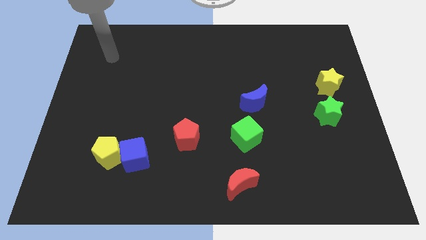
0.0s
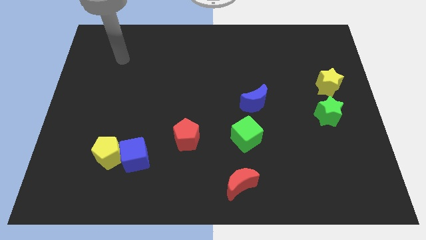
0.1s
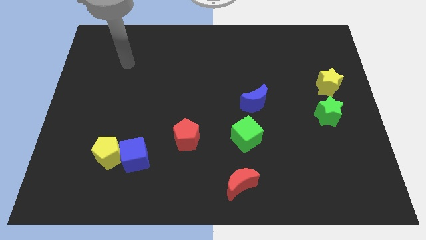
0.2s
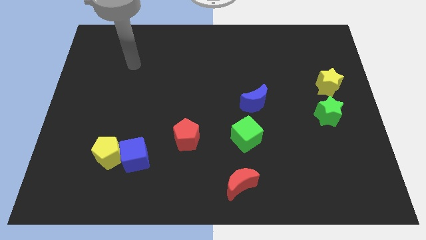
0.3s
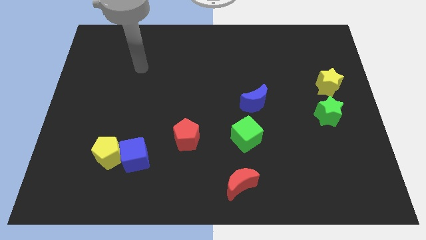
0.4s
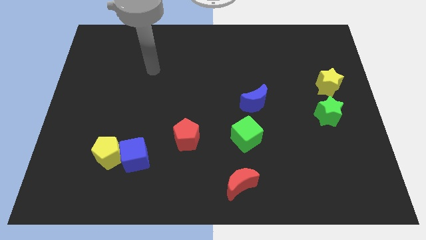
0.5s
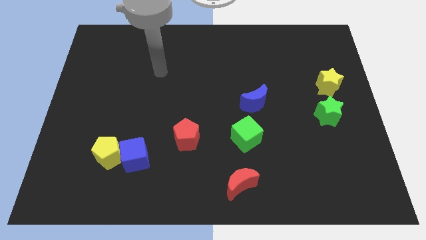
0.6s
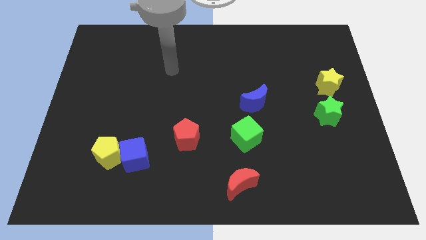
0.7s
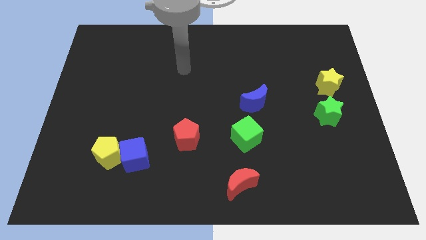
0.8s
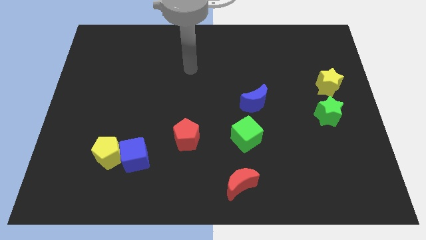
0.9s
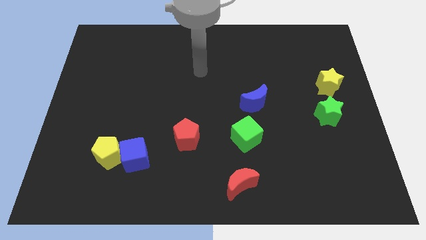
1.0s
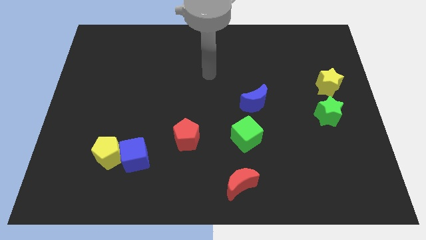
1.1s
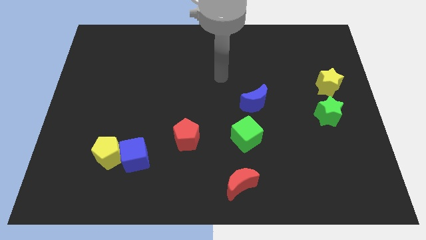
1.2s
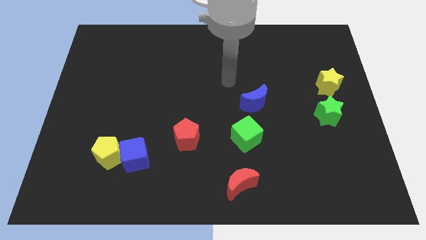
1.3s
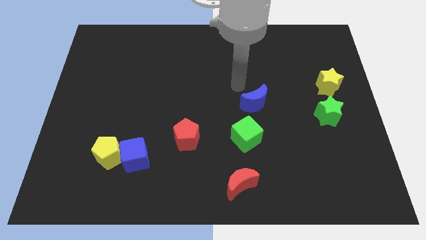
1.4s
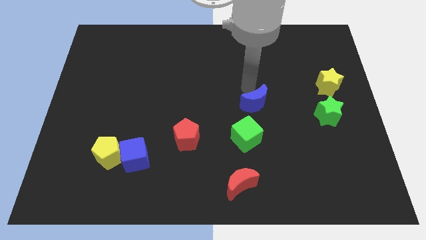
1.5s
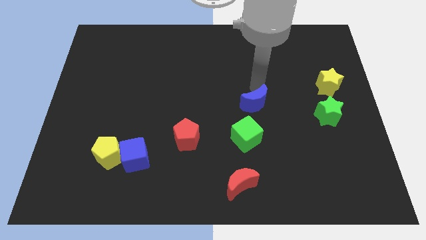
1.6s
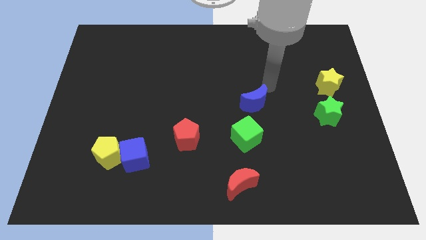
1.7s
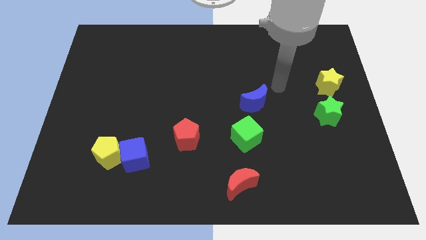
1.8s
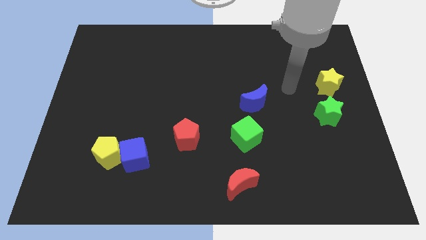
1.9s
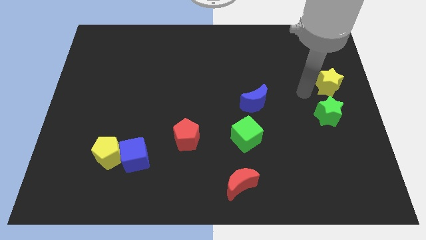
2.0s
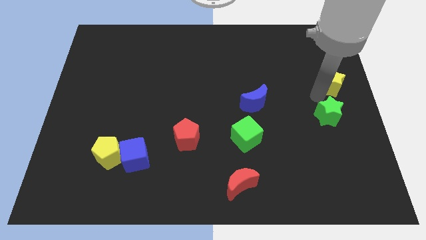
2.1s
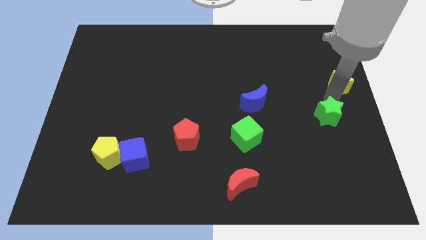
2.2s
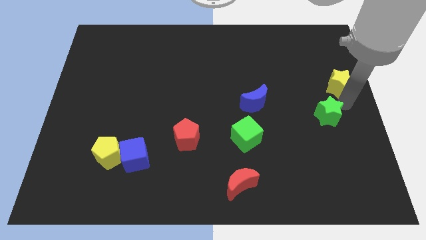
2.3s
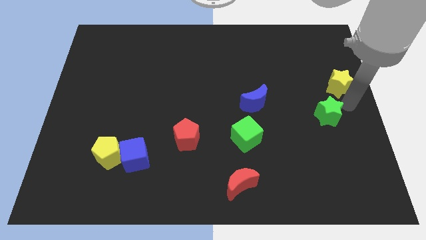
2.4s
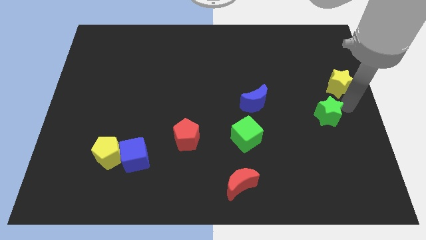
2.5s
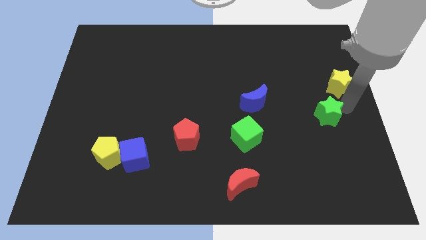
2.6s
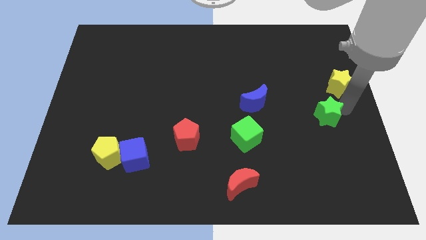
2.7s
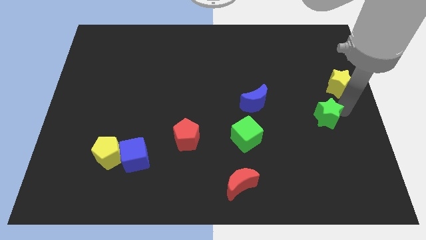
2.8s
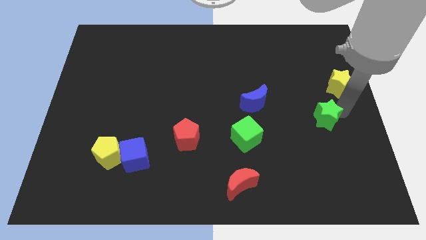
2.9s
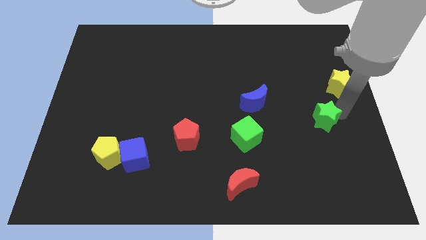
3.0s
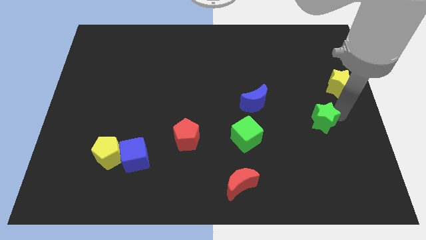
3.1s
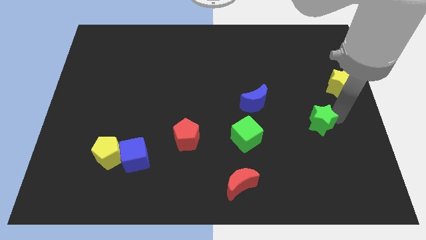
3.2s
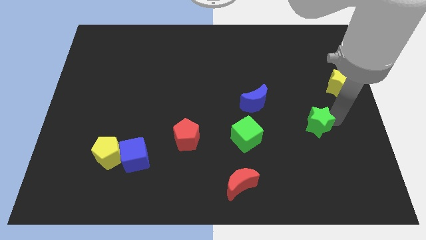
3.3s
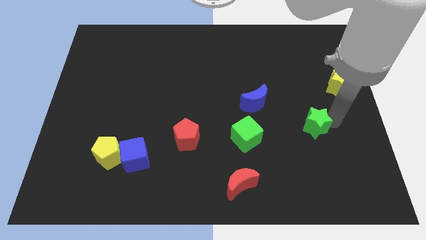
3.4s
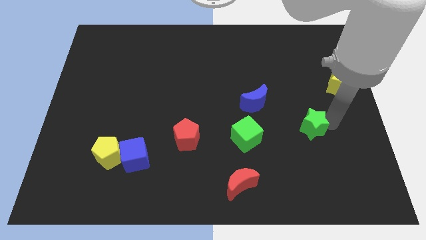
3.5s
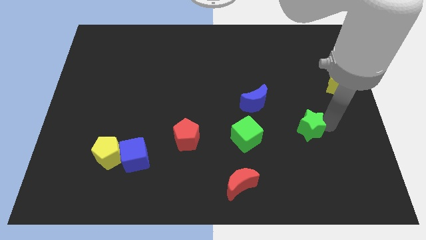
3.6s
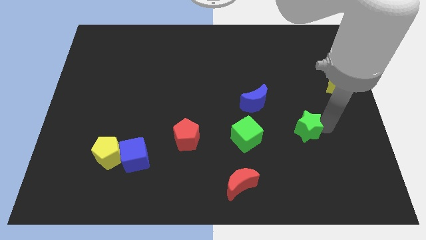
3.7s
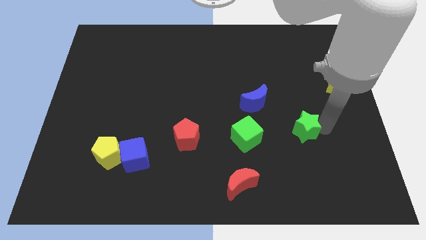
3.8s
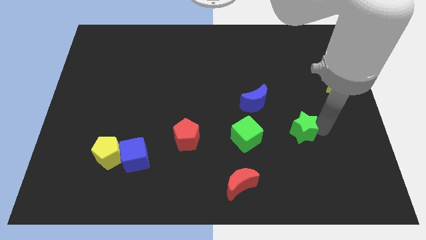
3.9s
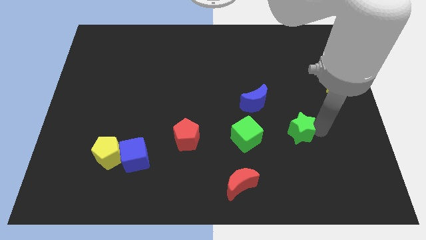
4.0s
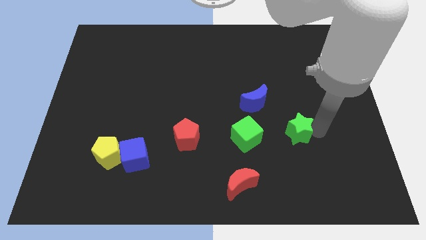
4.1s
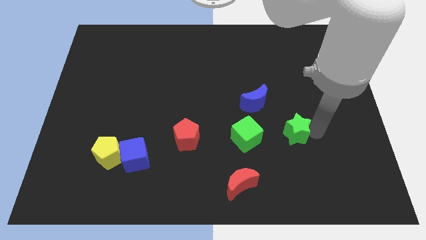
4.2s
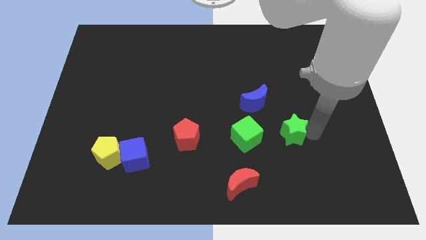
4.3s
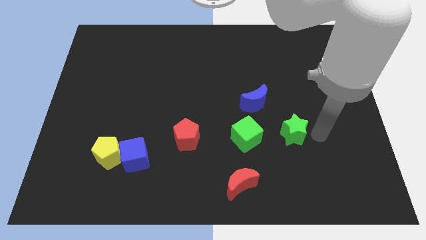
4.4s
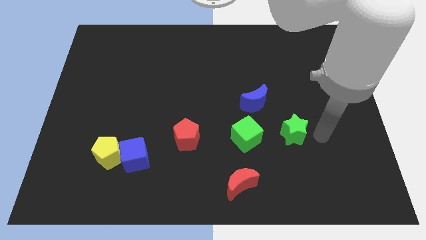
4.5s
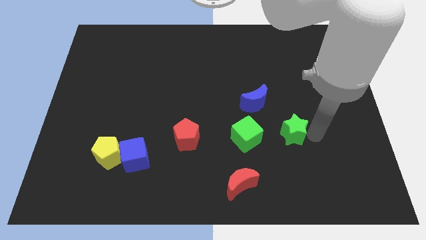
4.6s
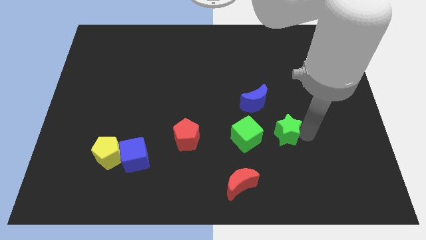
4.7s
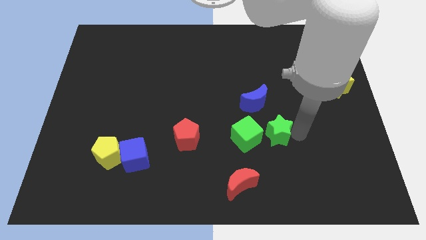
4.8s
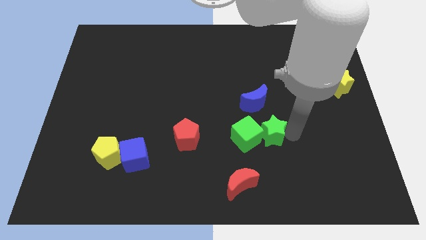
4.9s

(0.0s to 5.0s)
put the green star to the green cube

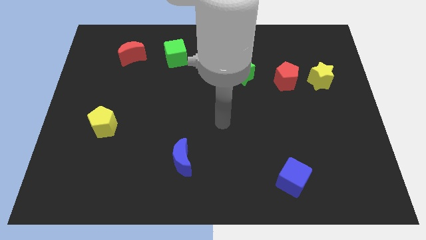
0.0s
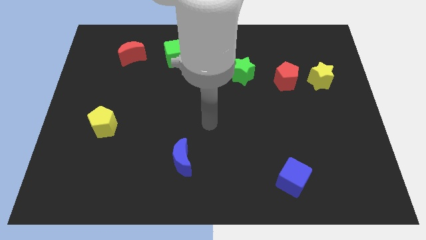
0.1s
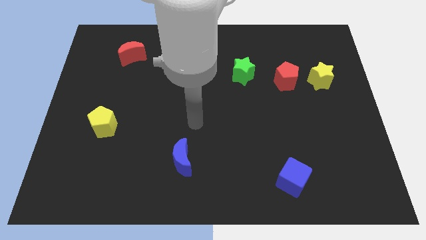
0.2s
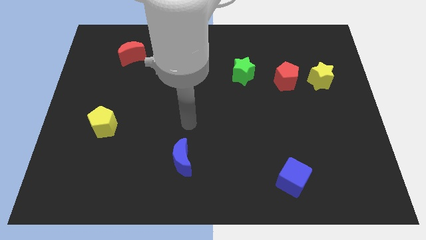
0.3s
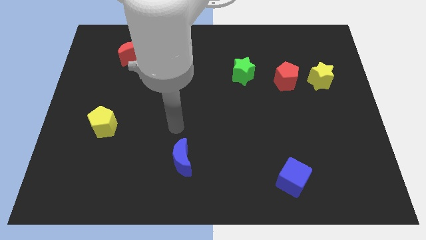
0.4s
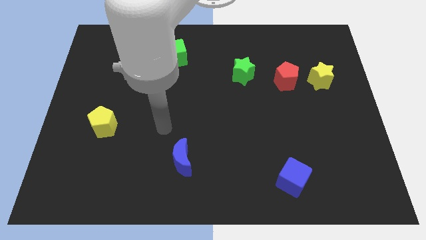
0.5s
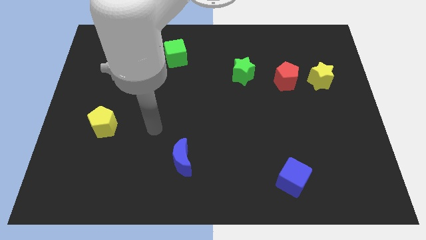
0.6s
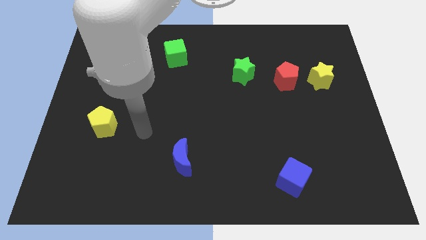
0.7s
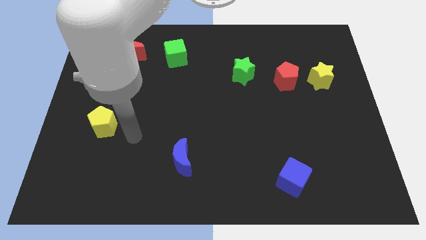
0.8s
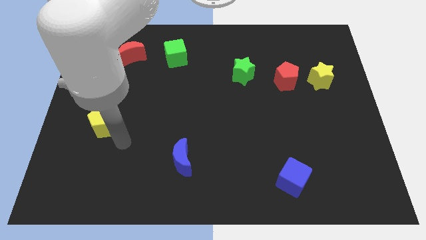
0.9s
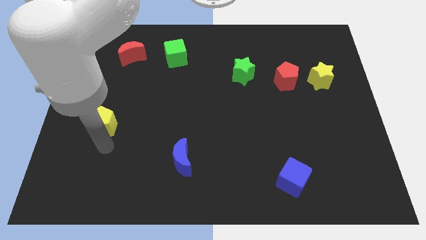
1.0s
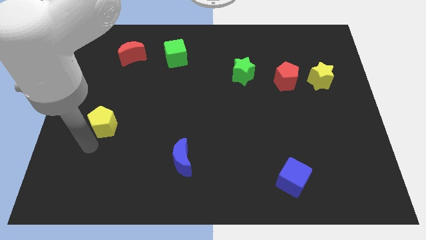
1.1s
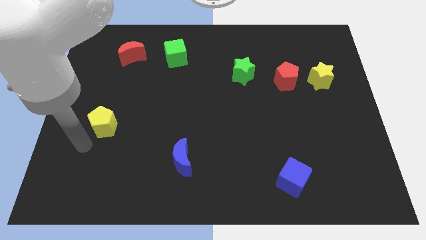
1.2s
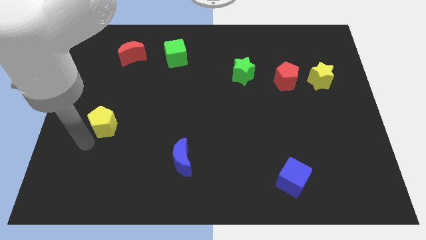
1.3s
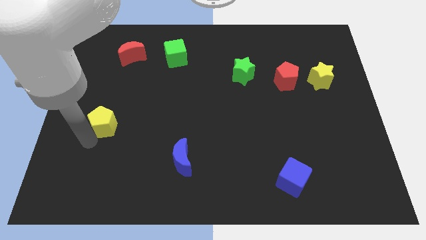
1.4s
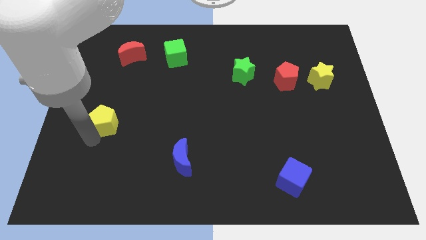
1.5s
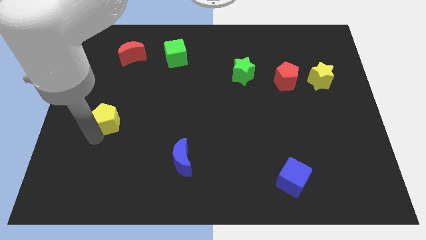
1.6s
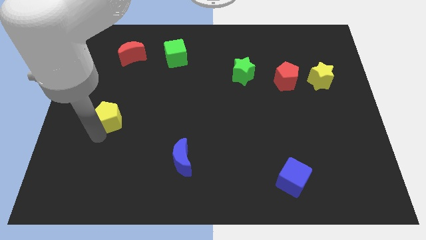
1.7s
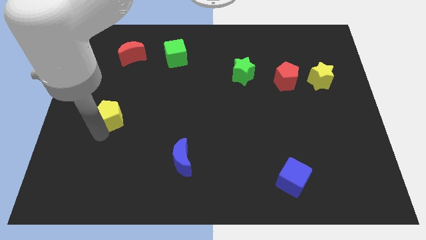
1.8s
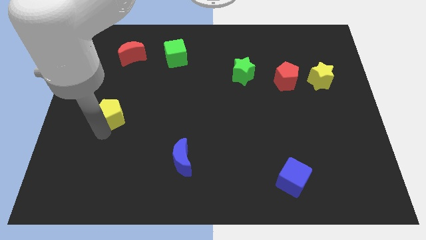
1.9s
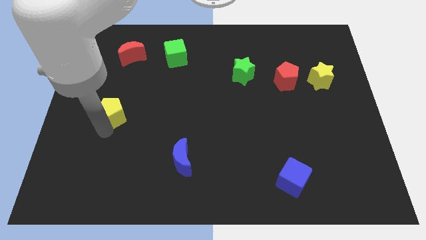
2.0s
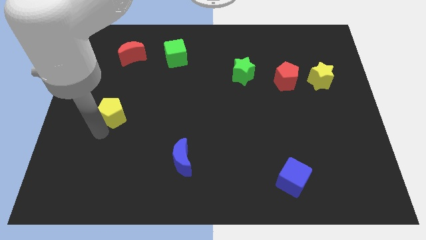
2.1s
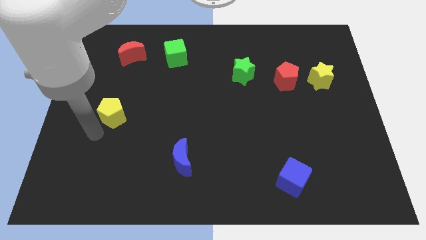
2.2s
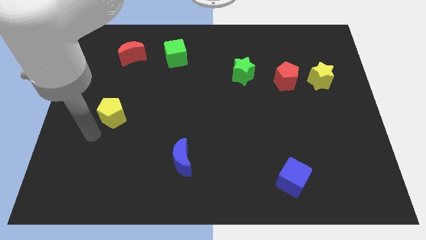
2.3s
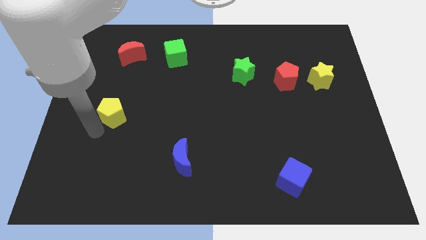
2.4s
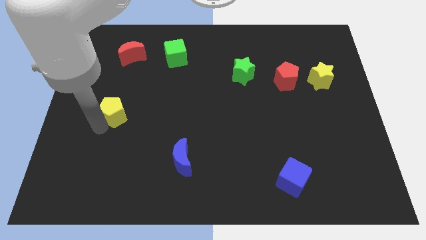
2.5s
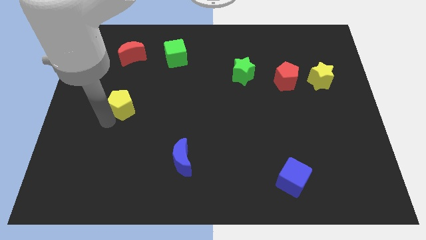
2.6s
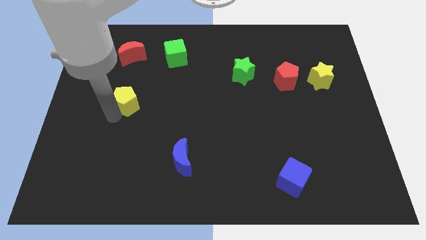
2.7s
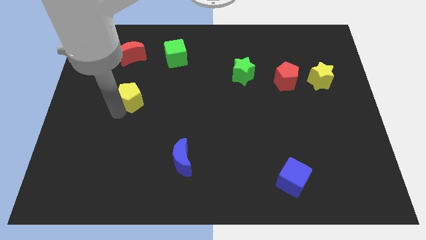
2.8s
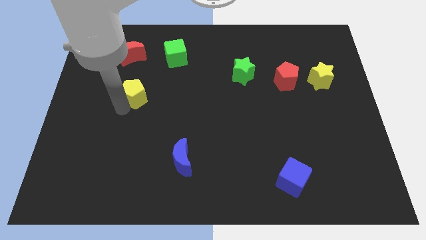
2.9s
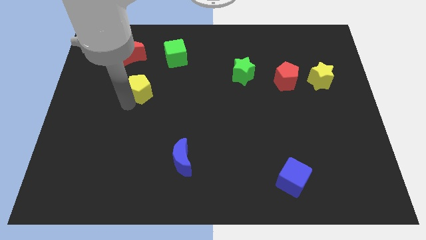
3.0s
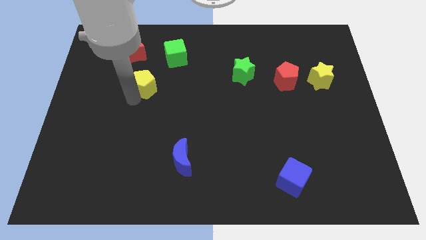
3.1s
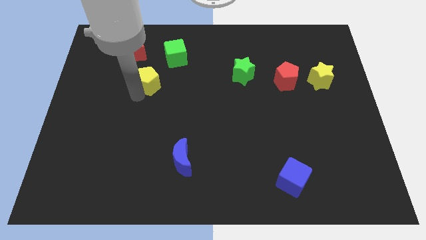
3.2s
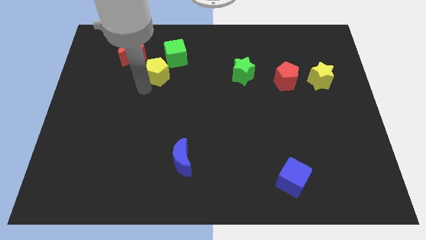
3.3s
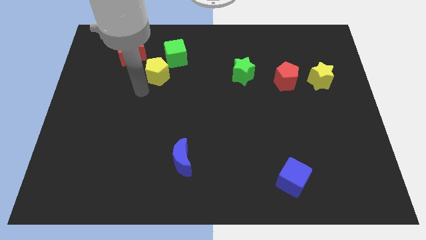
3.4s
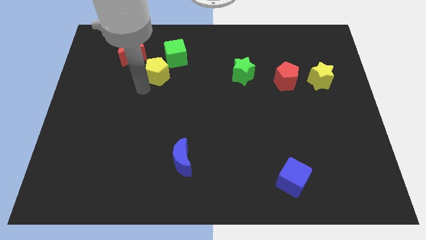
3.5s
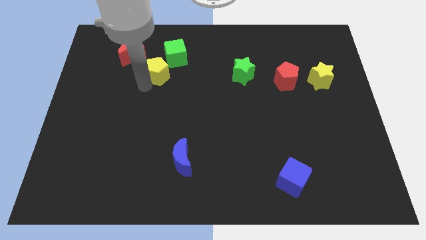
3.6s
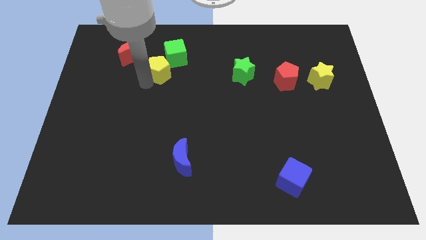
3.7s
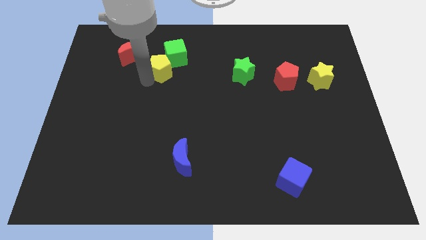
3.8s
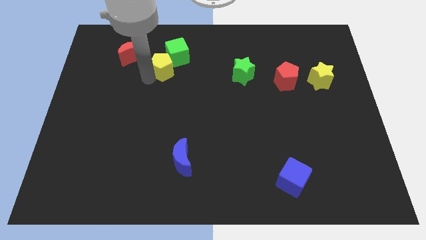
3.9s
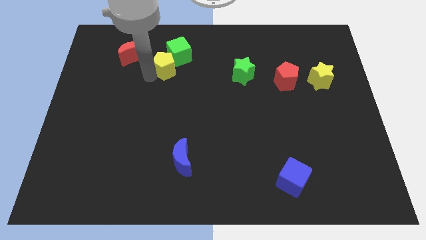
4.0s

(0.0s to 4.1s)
slide the yellow pentagon to the green cube
